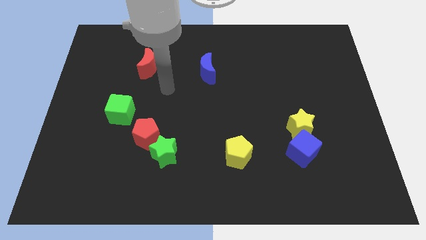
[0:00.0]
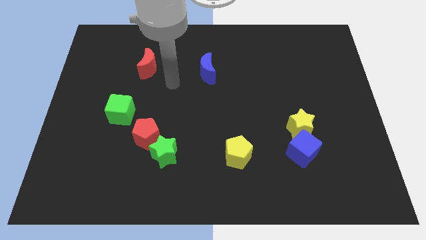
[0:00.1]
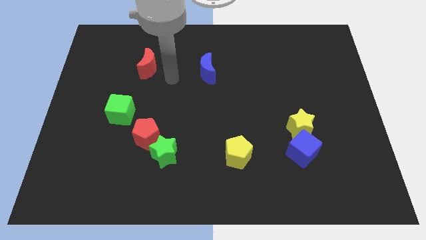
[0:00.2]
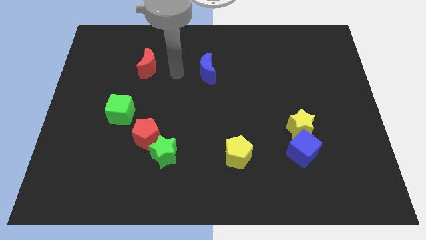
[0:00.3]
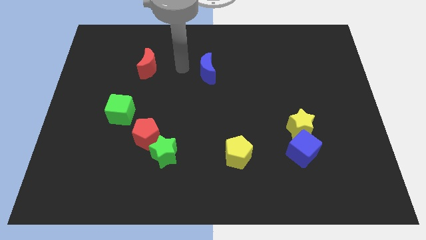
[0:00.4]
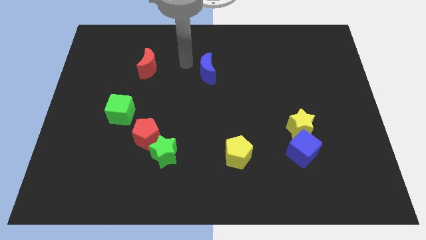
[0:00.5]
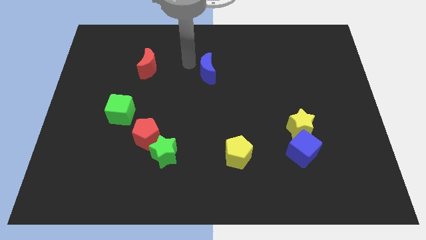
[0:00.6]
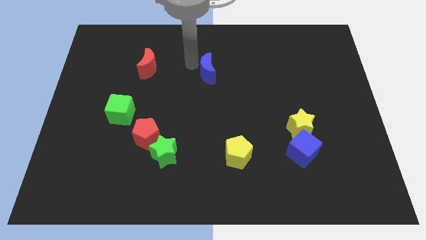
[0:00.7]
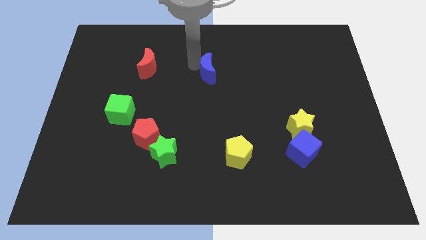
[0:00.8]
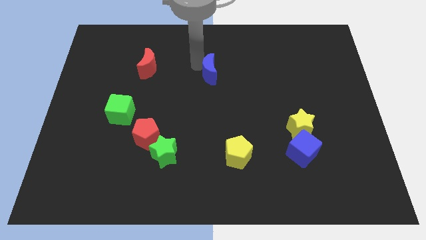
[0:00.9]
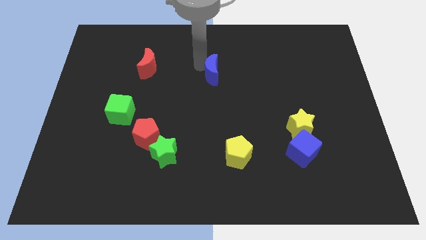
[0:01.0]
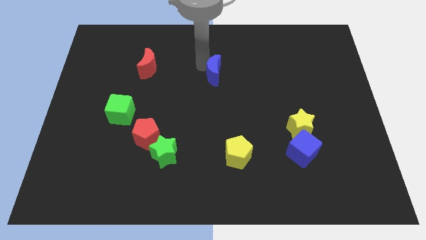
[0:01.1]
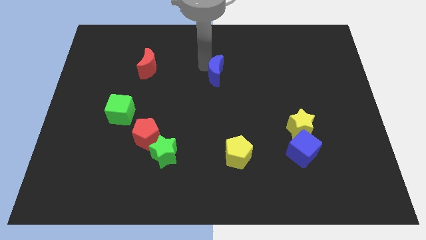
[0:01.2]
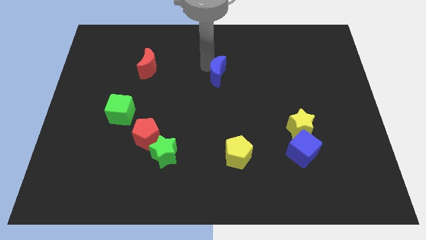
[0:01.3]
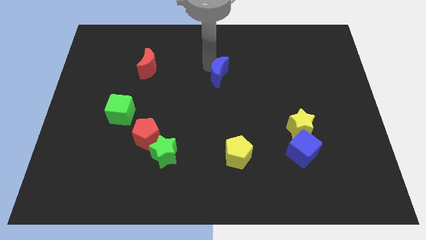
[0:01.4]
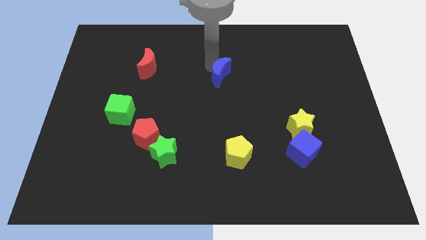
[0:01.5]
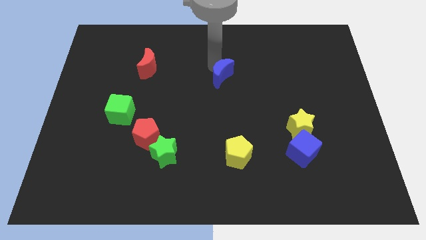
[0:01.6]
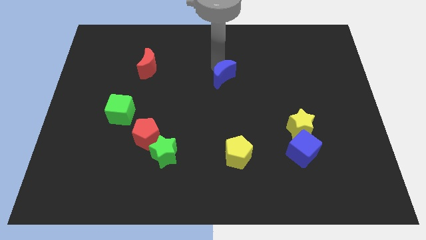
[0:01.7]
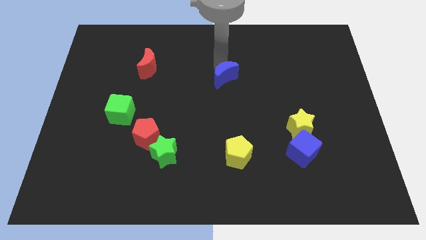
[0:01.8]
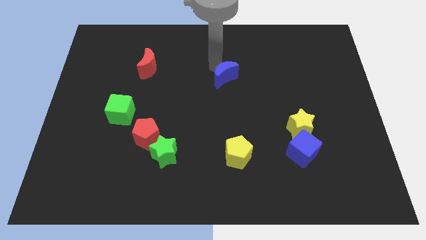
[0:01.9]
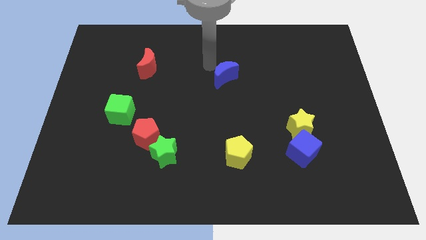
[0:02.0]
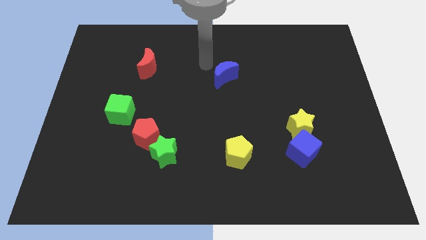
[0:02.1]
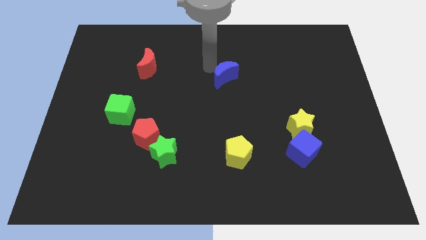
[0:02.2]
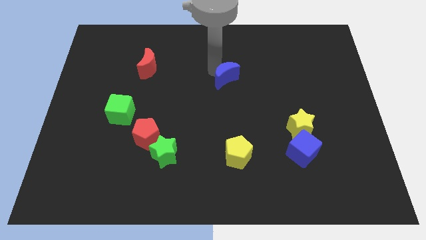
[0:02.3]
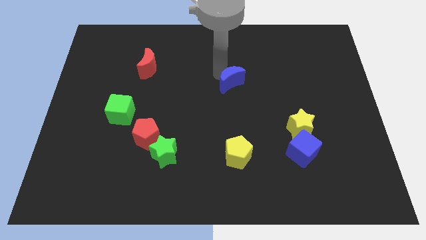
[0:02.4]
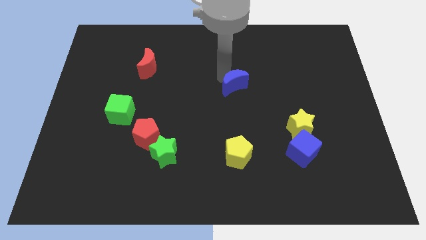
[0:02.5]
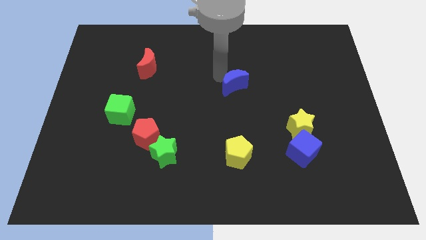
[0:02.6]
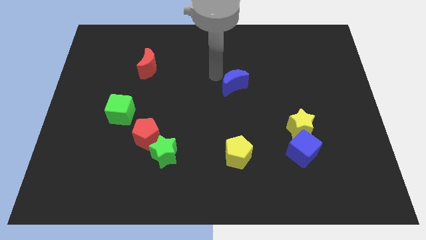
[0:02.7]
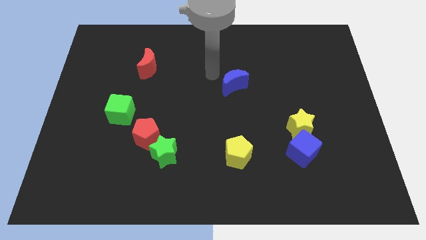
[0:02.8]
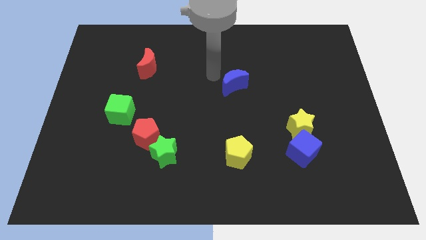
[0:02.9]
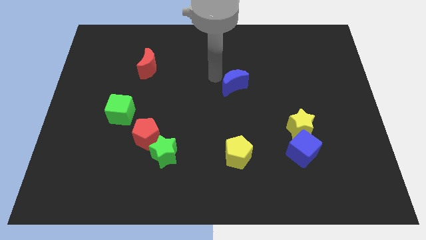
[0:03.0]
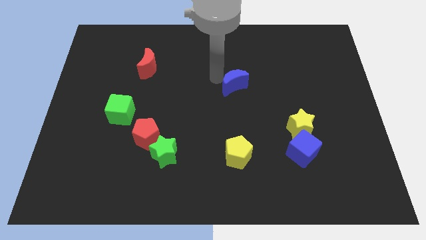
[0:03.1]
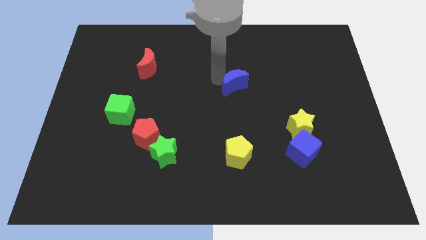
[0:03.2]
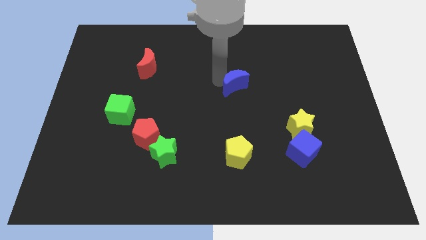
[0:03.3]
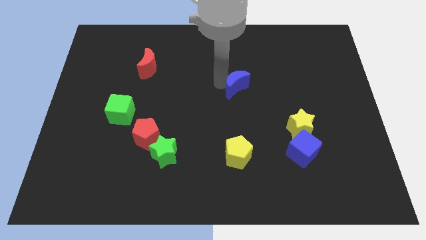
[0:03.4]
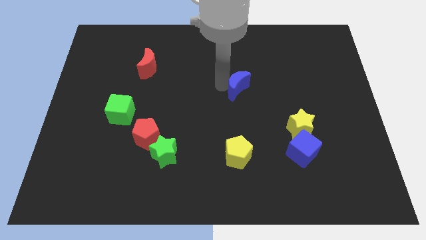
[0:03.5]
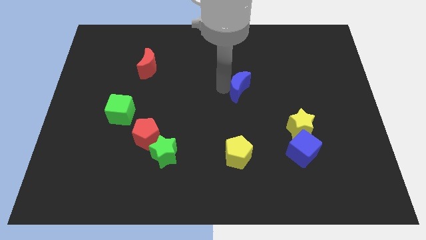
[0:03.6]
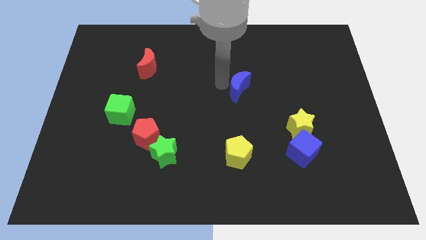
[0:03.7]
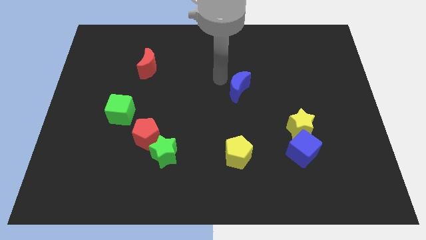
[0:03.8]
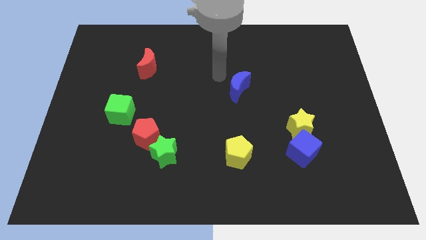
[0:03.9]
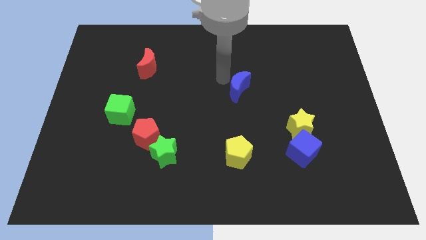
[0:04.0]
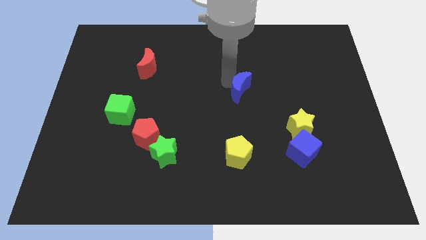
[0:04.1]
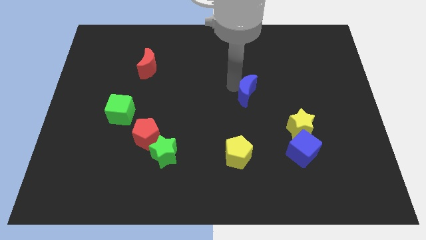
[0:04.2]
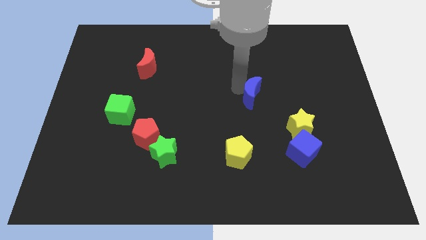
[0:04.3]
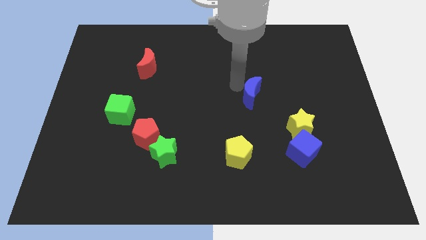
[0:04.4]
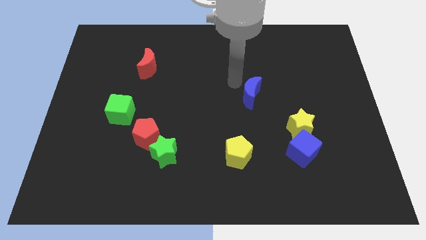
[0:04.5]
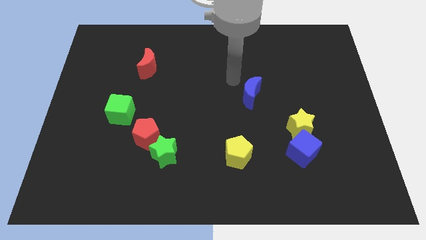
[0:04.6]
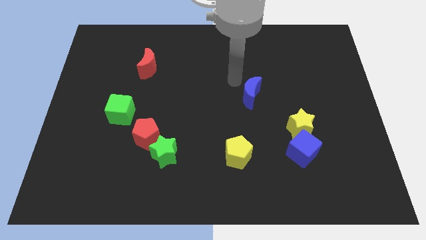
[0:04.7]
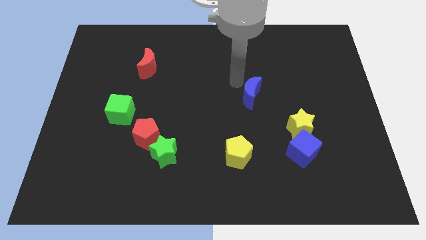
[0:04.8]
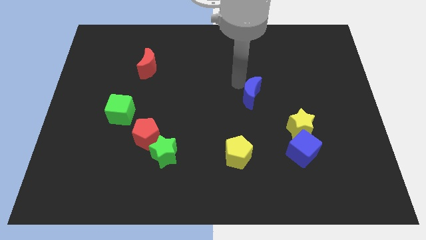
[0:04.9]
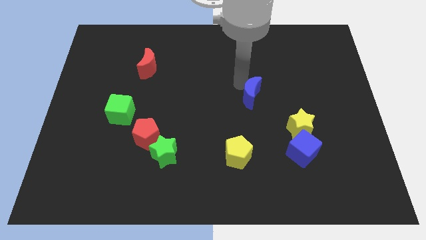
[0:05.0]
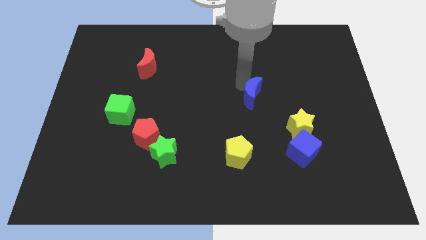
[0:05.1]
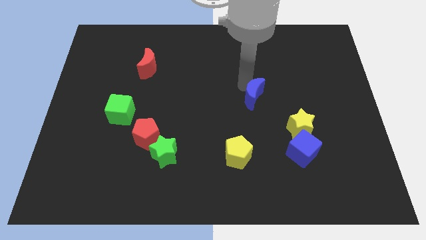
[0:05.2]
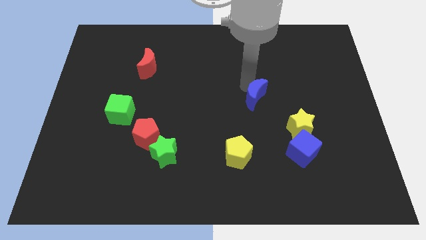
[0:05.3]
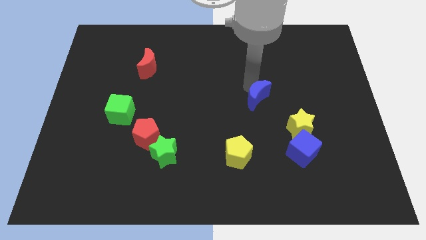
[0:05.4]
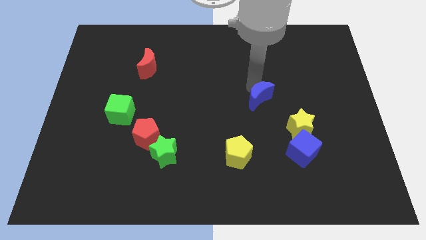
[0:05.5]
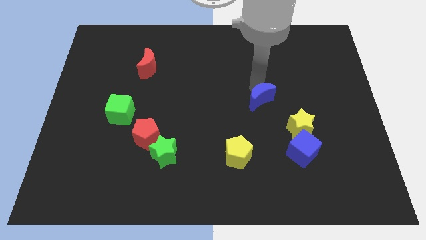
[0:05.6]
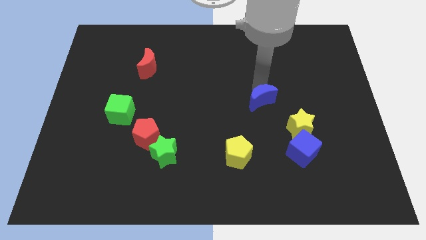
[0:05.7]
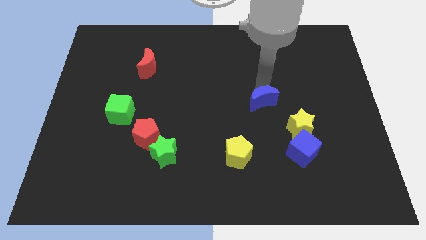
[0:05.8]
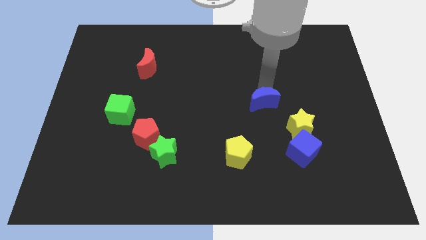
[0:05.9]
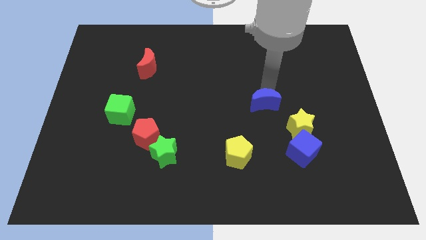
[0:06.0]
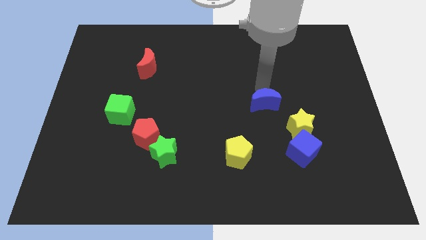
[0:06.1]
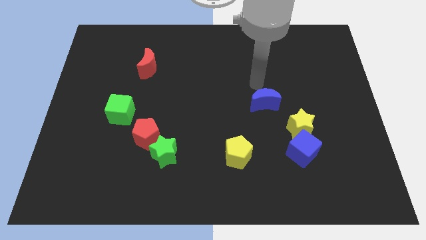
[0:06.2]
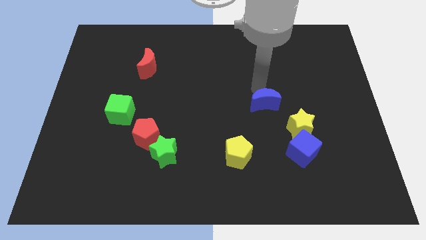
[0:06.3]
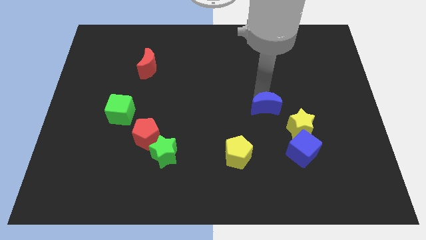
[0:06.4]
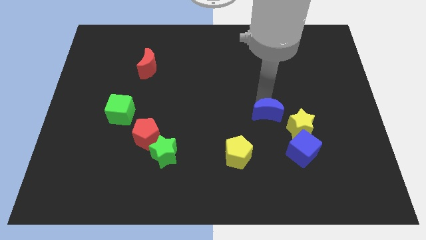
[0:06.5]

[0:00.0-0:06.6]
move the blue moon diagonally up and to the left of the blue cube

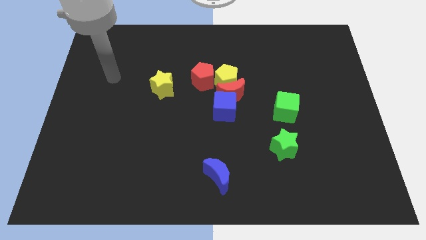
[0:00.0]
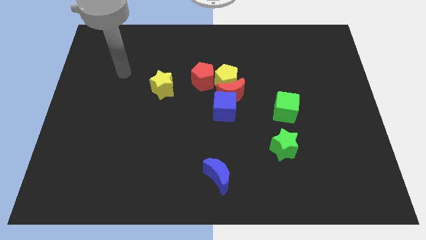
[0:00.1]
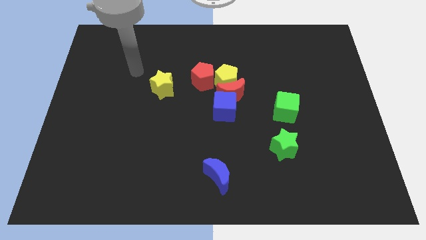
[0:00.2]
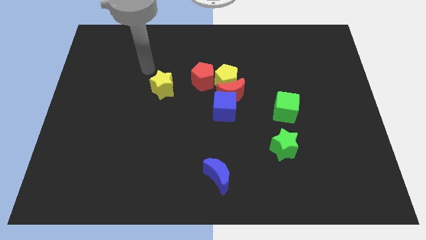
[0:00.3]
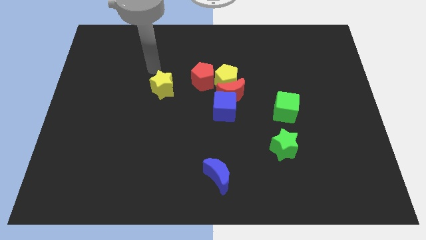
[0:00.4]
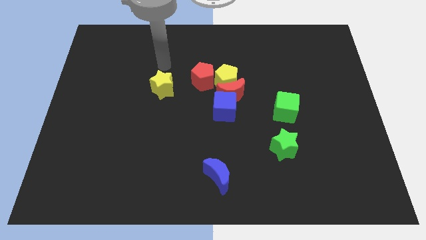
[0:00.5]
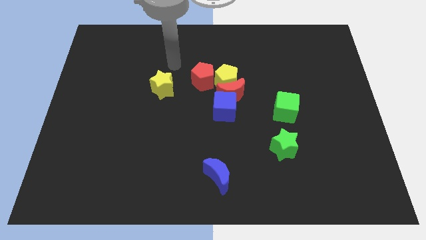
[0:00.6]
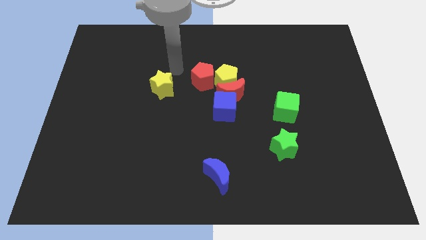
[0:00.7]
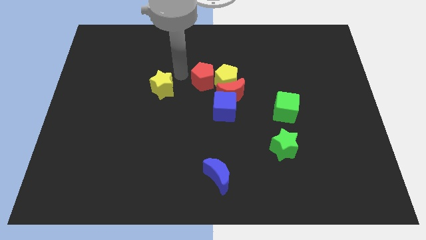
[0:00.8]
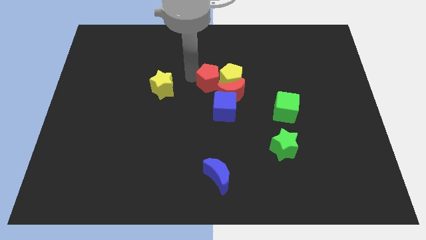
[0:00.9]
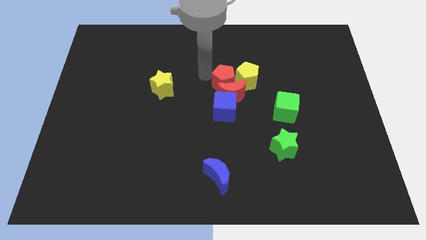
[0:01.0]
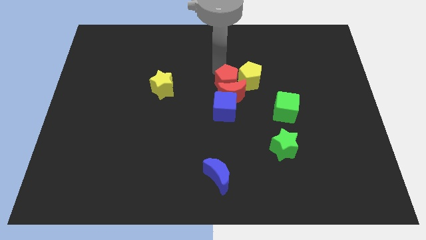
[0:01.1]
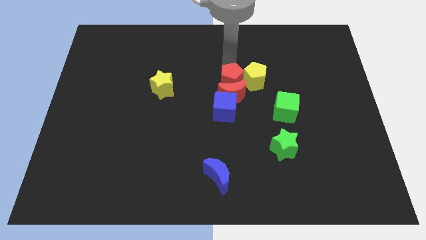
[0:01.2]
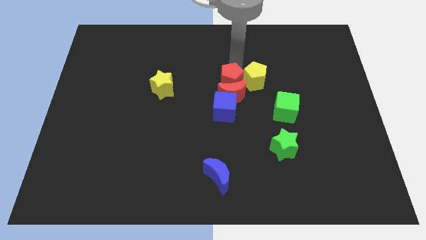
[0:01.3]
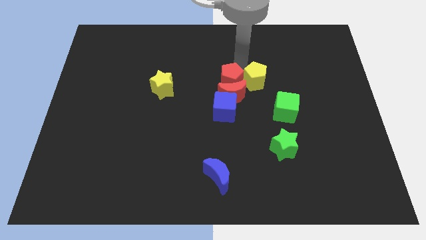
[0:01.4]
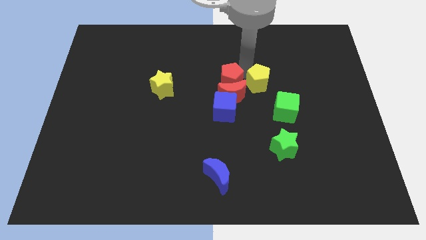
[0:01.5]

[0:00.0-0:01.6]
push the yellow pentagon to the right of the red moon
